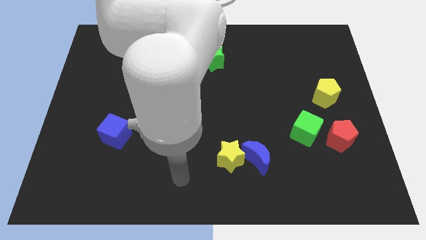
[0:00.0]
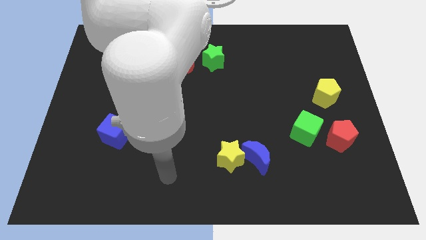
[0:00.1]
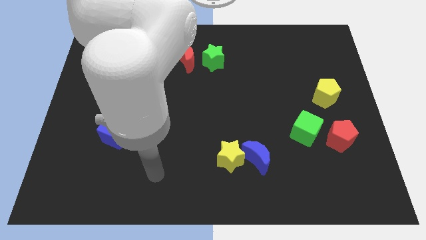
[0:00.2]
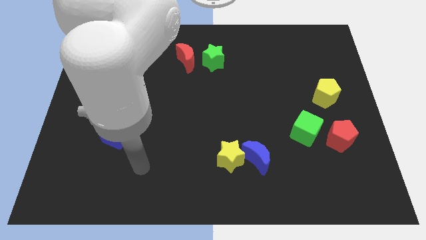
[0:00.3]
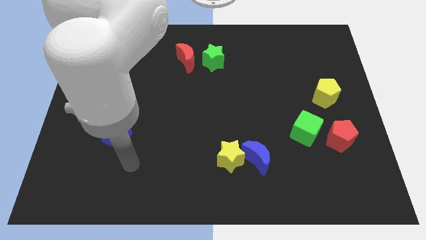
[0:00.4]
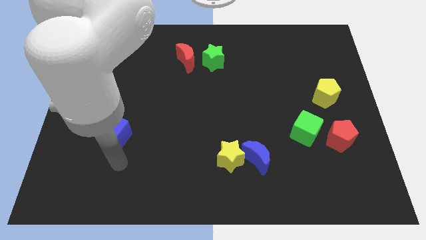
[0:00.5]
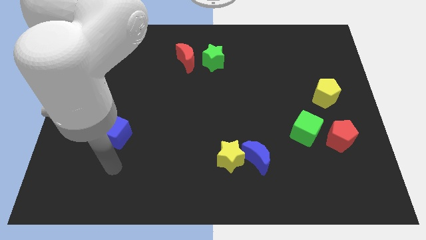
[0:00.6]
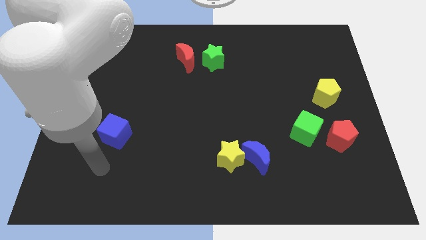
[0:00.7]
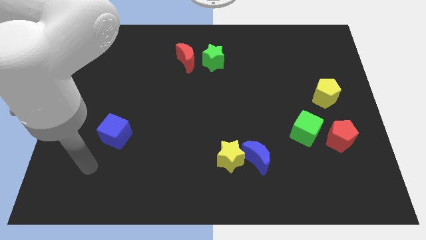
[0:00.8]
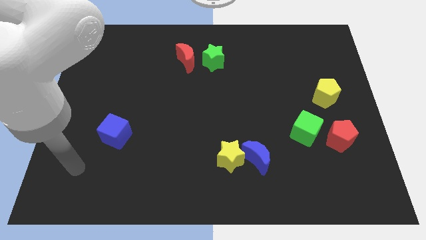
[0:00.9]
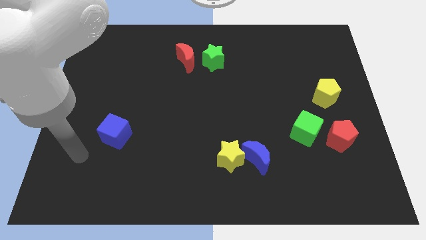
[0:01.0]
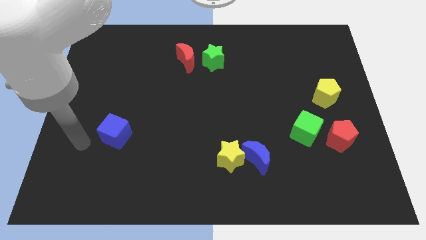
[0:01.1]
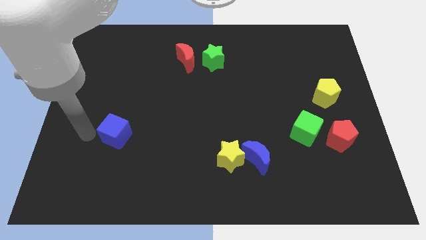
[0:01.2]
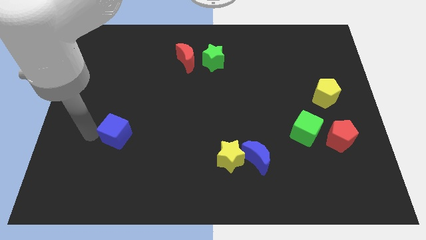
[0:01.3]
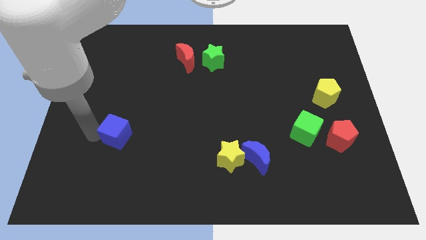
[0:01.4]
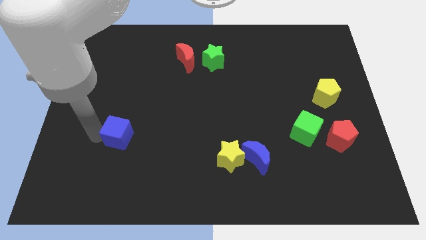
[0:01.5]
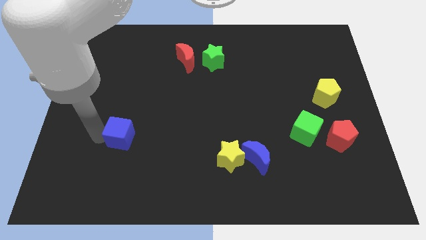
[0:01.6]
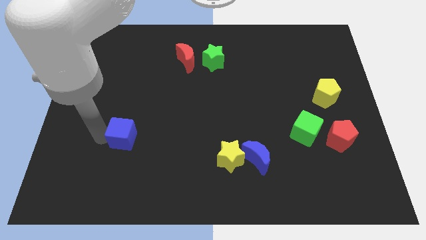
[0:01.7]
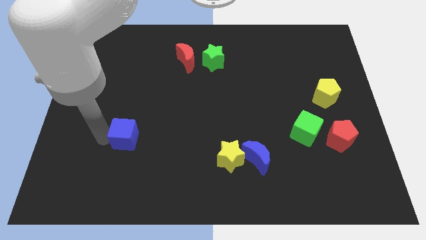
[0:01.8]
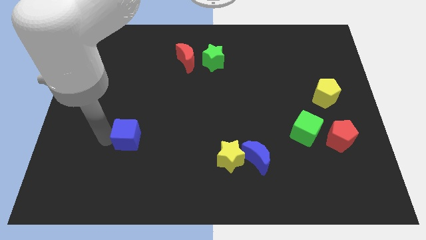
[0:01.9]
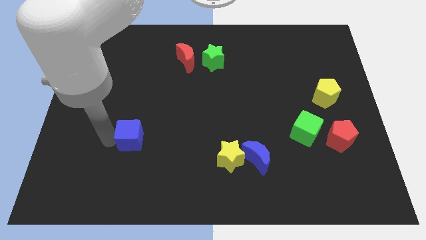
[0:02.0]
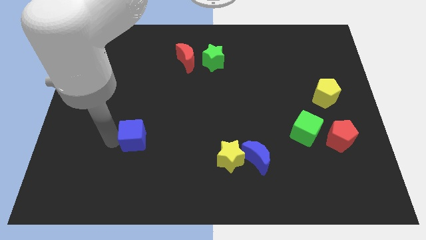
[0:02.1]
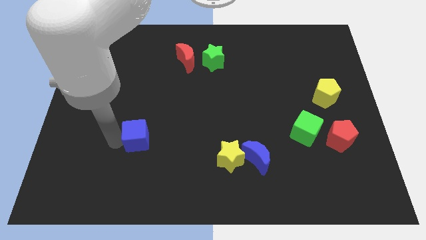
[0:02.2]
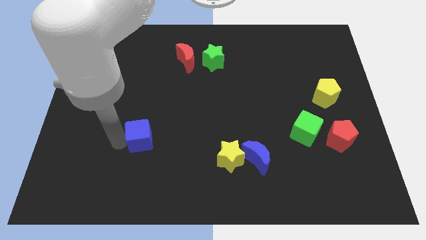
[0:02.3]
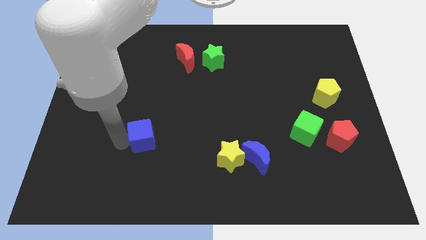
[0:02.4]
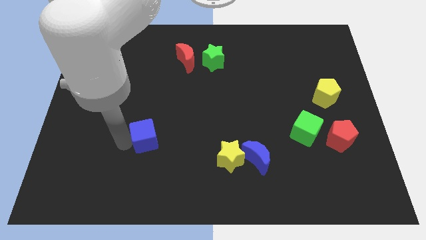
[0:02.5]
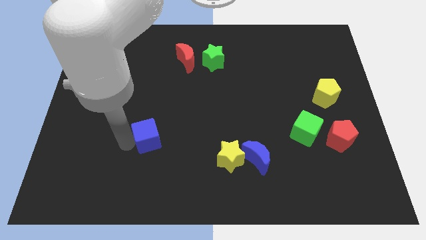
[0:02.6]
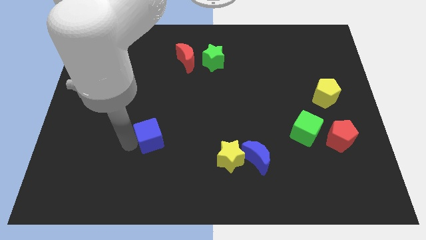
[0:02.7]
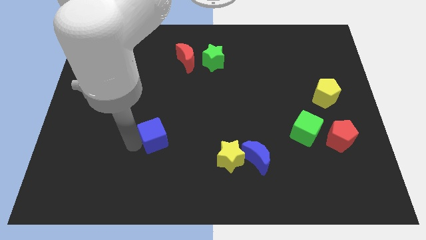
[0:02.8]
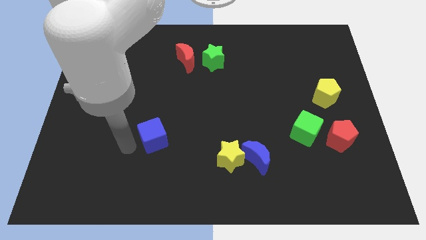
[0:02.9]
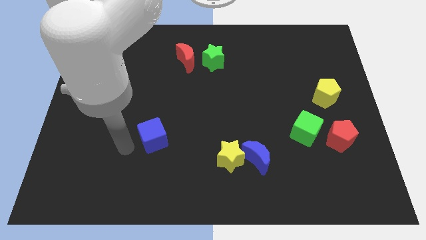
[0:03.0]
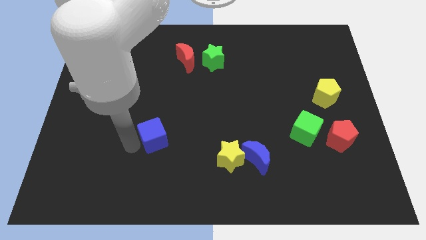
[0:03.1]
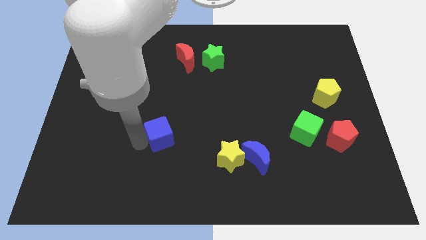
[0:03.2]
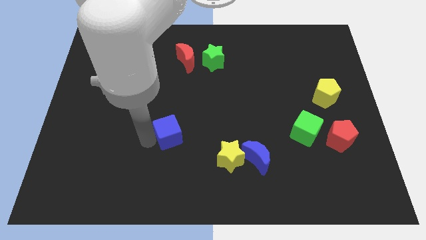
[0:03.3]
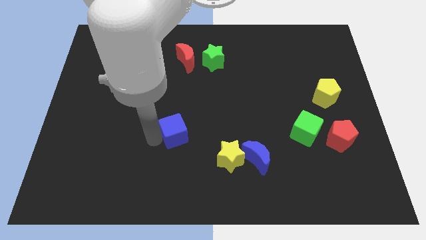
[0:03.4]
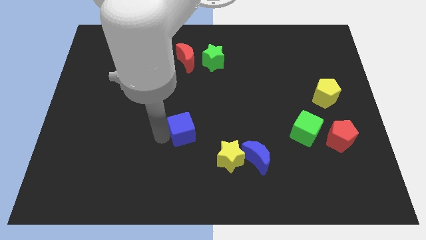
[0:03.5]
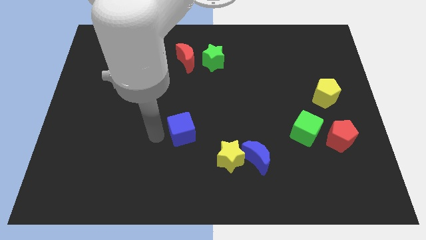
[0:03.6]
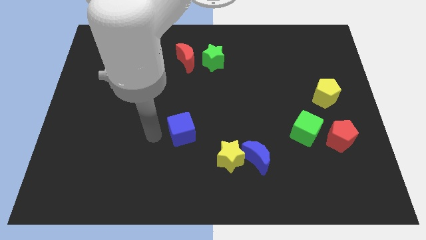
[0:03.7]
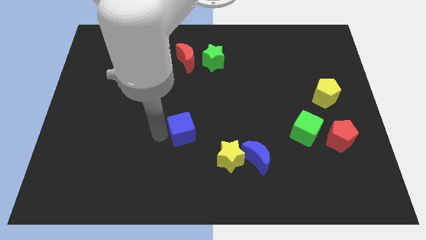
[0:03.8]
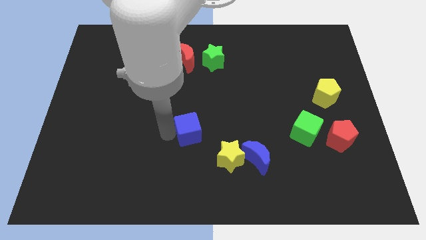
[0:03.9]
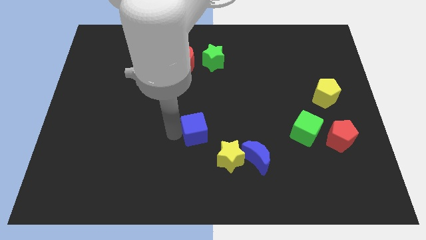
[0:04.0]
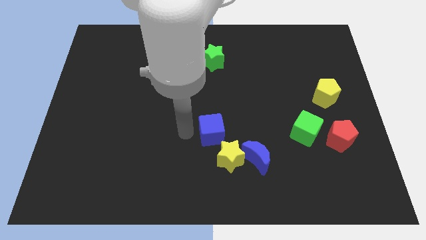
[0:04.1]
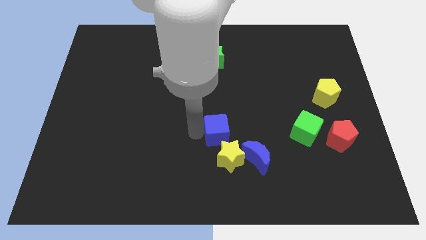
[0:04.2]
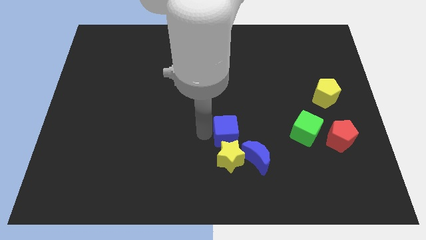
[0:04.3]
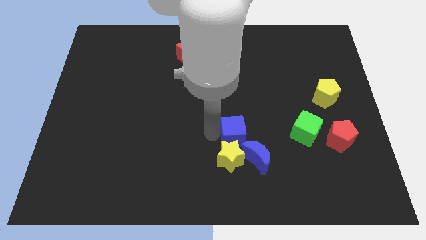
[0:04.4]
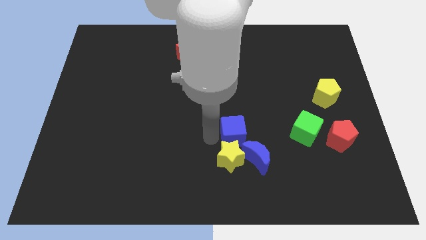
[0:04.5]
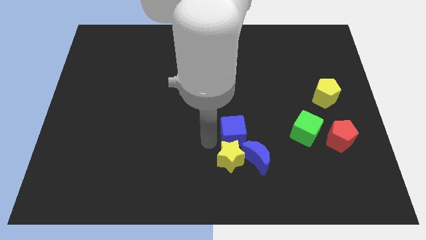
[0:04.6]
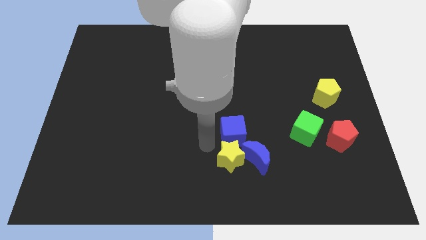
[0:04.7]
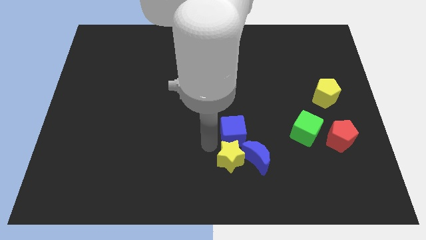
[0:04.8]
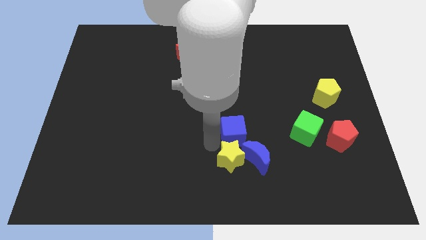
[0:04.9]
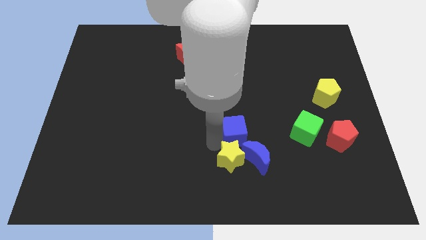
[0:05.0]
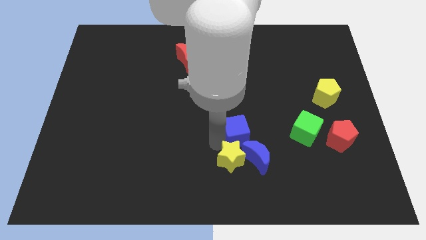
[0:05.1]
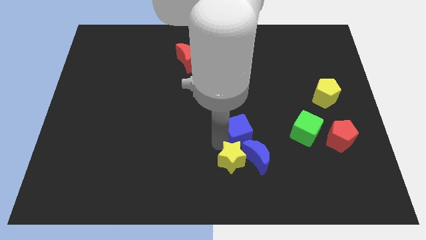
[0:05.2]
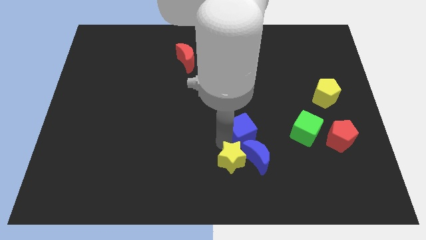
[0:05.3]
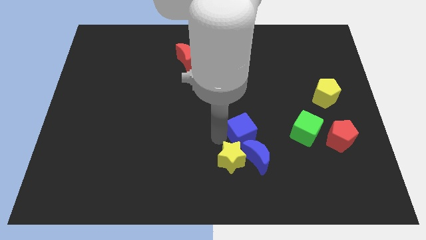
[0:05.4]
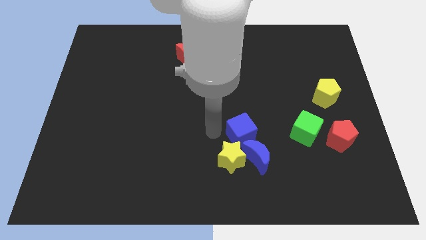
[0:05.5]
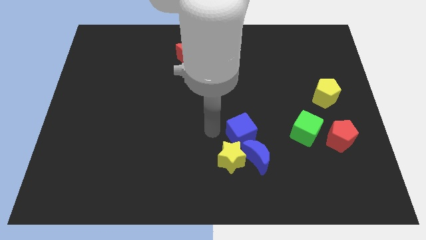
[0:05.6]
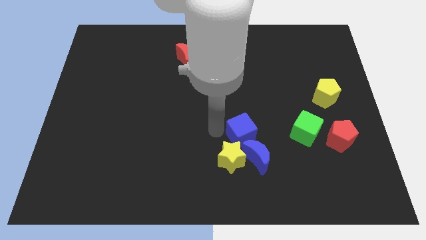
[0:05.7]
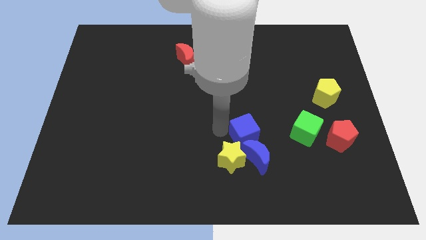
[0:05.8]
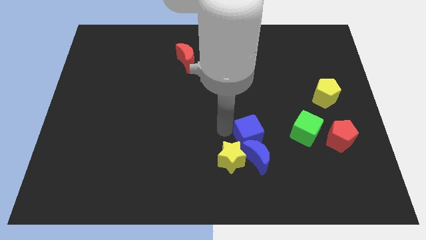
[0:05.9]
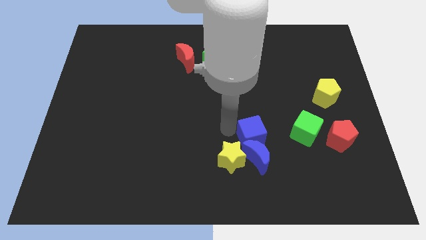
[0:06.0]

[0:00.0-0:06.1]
slide the blue cube to the top right side of the blue moon

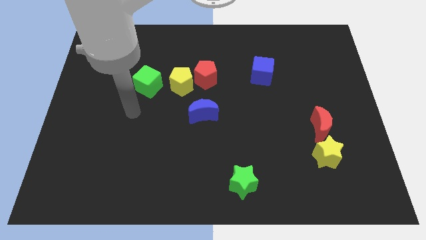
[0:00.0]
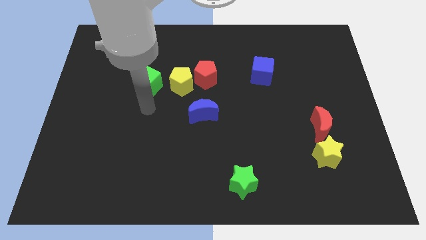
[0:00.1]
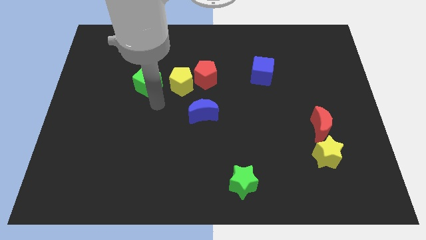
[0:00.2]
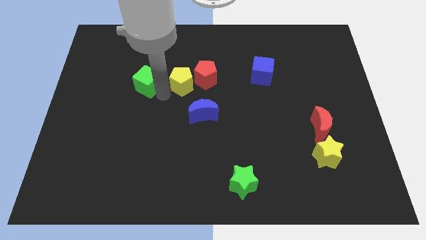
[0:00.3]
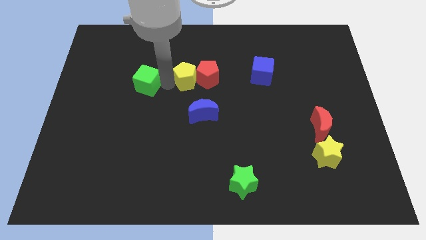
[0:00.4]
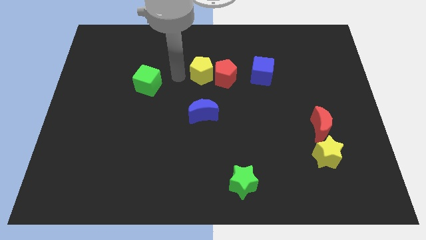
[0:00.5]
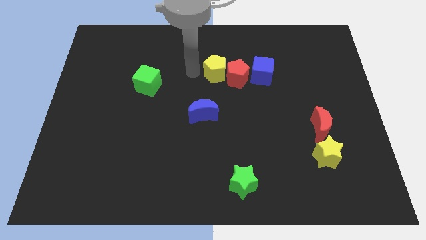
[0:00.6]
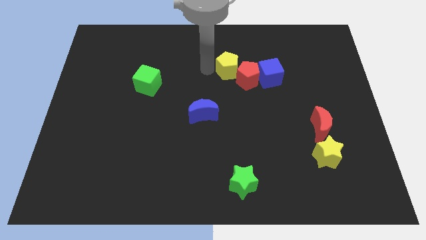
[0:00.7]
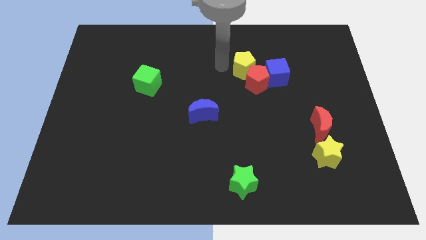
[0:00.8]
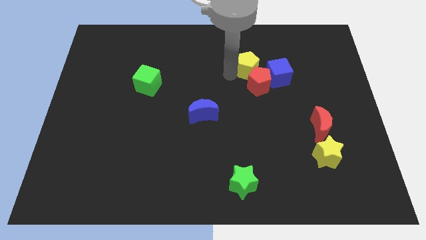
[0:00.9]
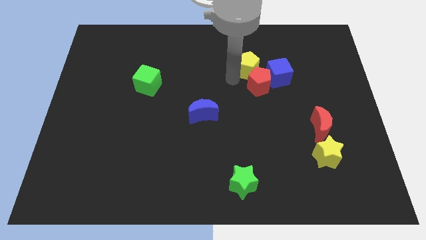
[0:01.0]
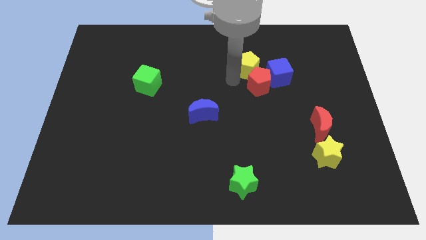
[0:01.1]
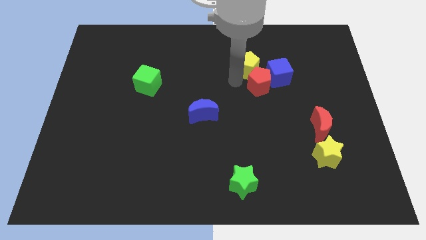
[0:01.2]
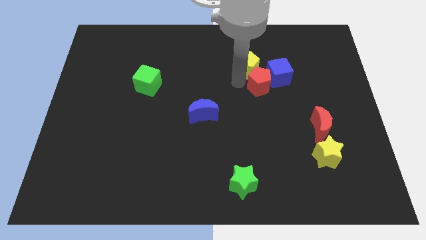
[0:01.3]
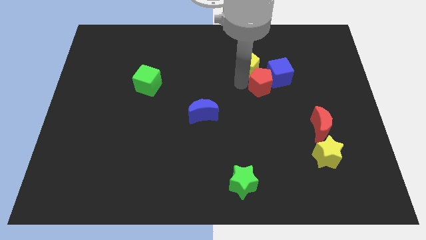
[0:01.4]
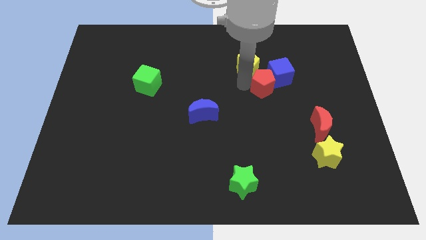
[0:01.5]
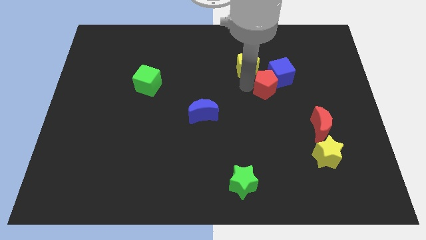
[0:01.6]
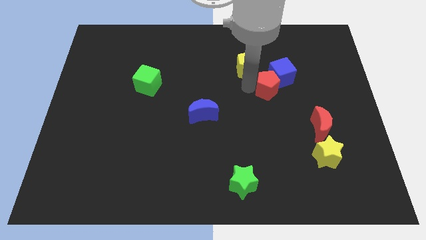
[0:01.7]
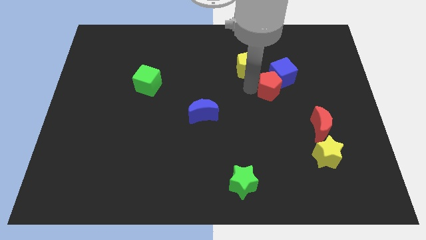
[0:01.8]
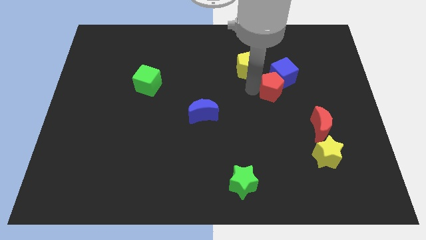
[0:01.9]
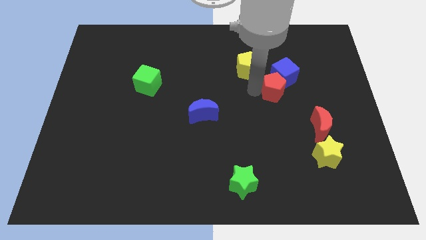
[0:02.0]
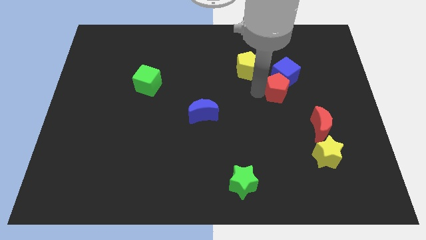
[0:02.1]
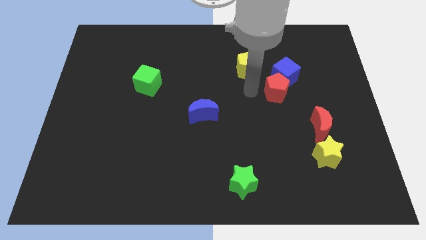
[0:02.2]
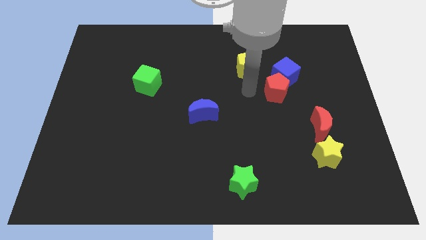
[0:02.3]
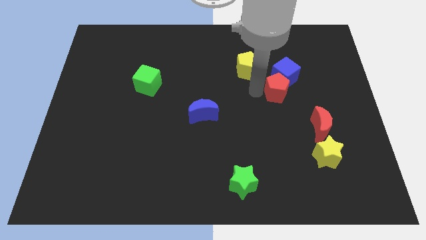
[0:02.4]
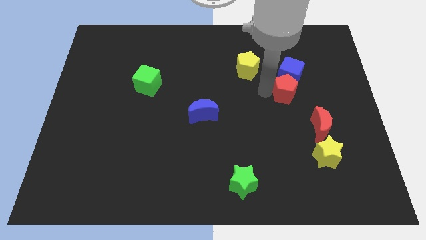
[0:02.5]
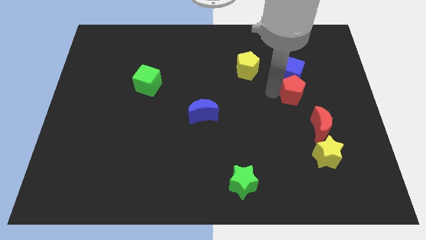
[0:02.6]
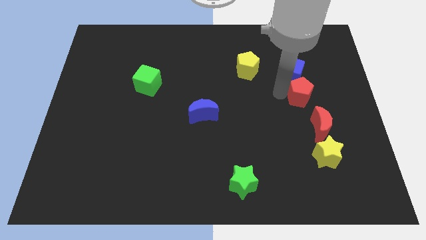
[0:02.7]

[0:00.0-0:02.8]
put the red pentagon to the top of the red moon
